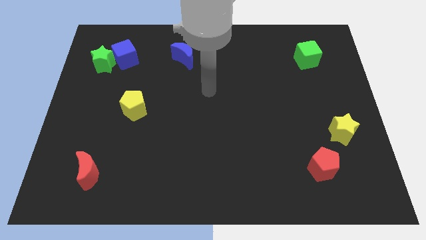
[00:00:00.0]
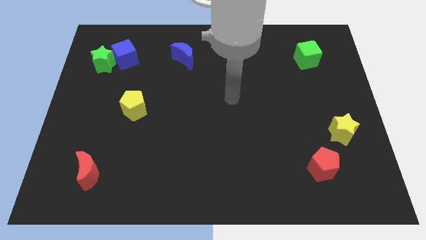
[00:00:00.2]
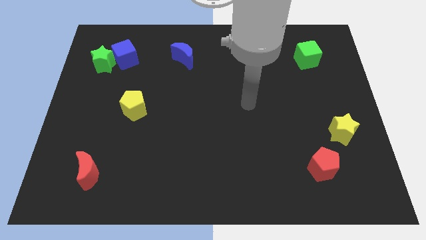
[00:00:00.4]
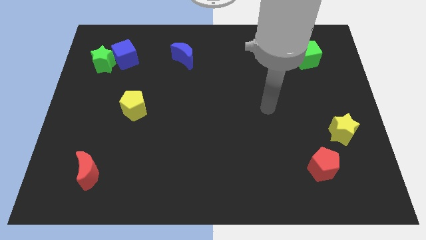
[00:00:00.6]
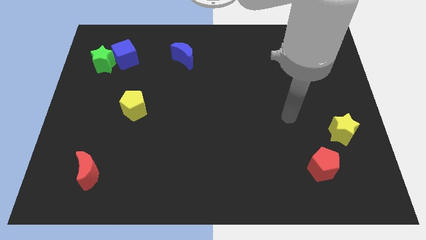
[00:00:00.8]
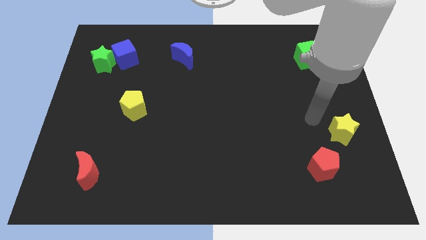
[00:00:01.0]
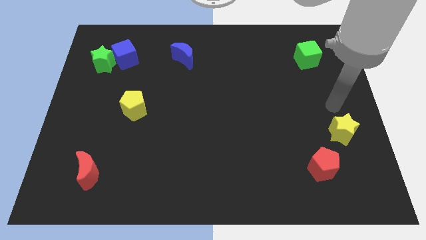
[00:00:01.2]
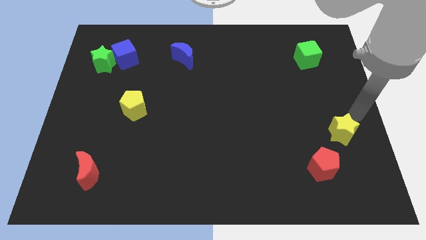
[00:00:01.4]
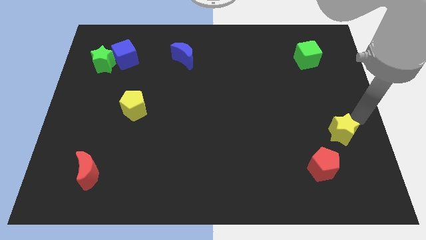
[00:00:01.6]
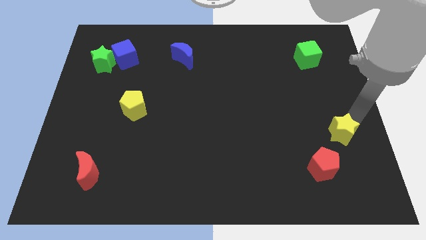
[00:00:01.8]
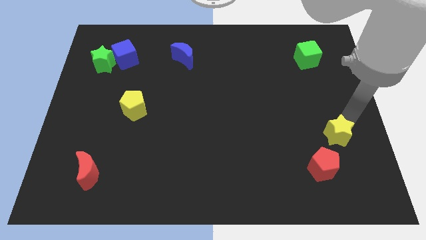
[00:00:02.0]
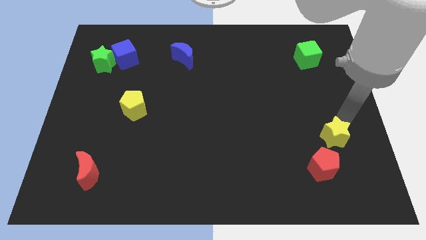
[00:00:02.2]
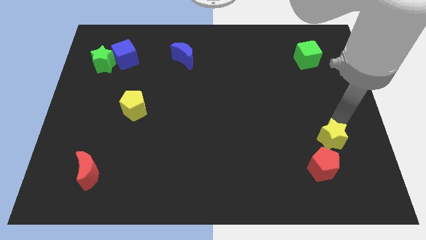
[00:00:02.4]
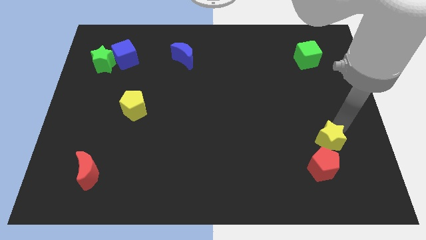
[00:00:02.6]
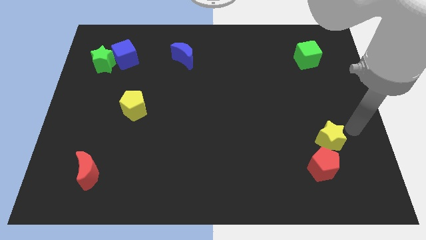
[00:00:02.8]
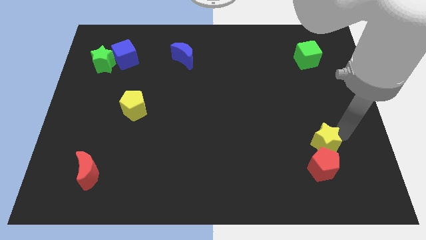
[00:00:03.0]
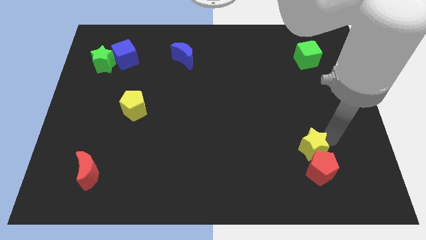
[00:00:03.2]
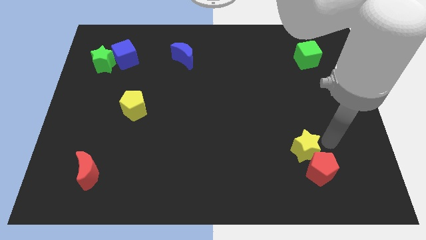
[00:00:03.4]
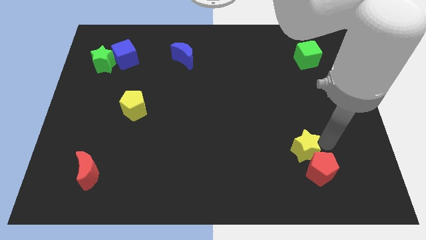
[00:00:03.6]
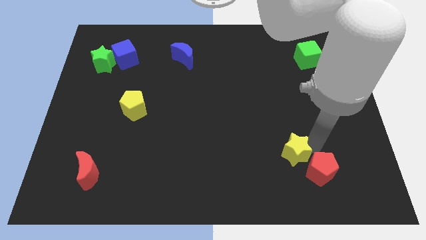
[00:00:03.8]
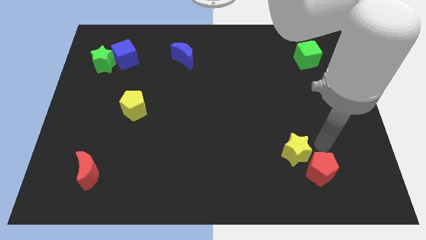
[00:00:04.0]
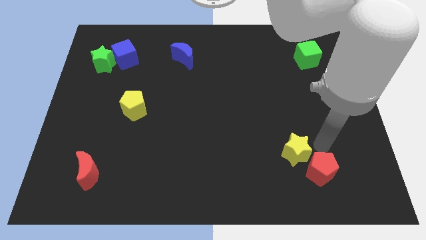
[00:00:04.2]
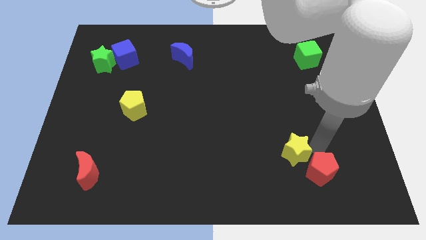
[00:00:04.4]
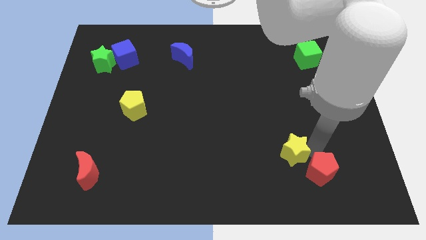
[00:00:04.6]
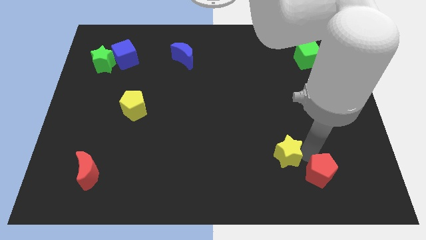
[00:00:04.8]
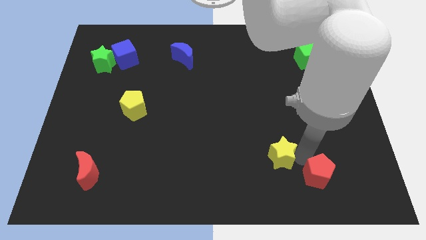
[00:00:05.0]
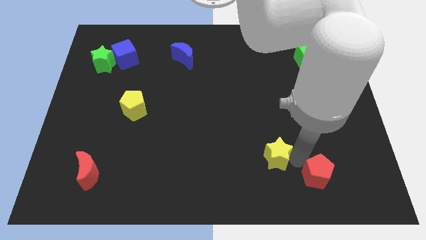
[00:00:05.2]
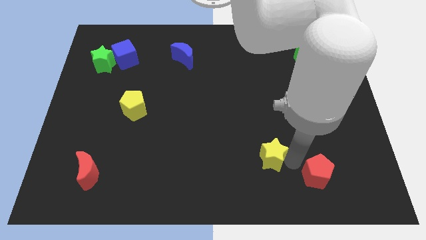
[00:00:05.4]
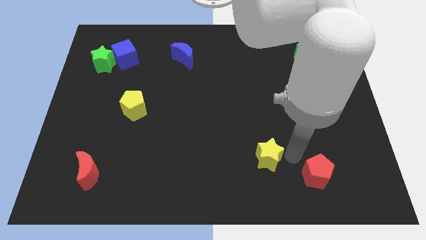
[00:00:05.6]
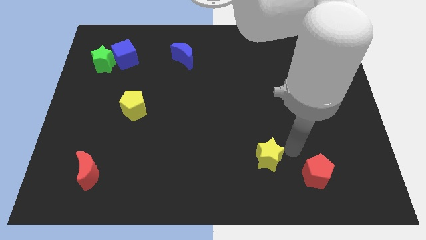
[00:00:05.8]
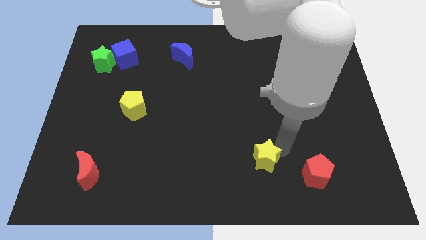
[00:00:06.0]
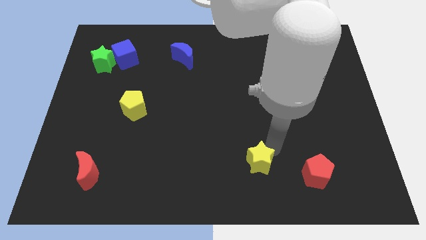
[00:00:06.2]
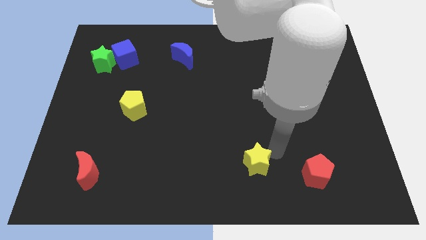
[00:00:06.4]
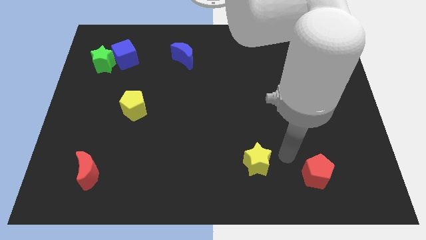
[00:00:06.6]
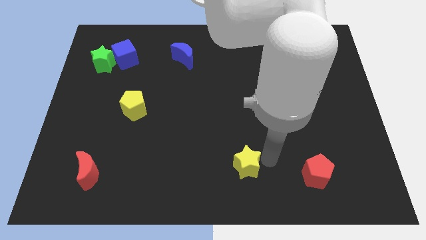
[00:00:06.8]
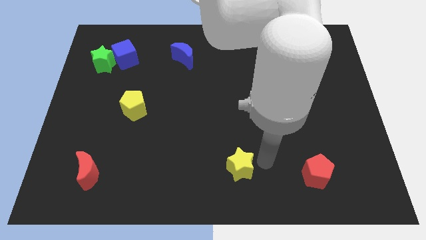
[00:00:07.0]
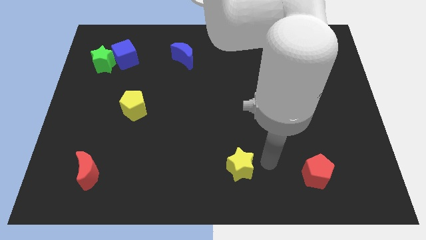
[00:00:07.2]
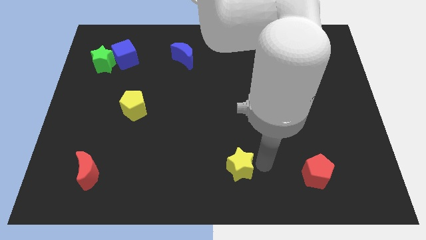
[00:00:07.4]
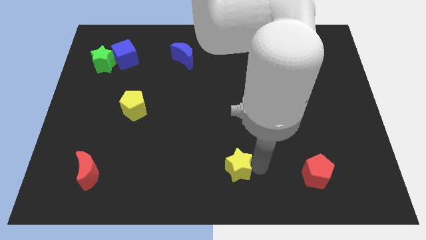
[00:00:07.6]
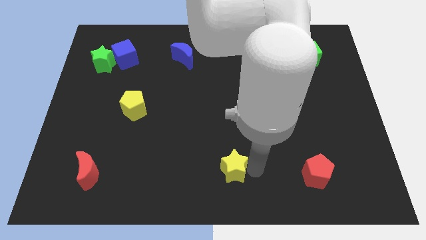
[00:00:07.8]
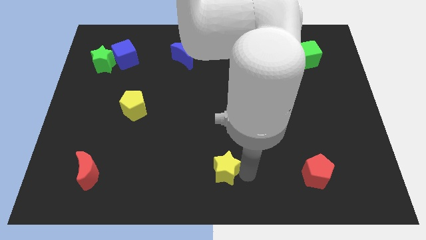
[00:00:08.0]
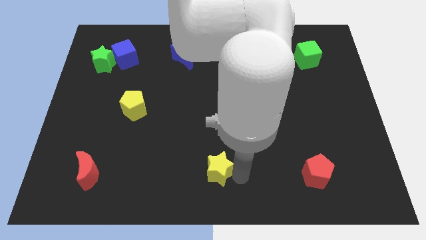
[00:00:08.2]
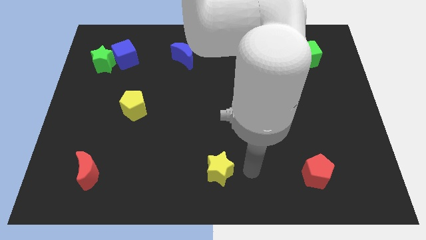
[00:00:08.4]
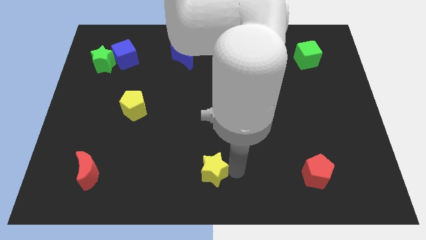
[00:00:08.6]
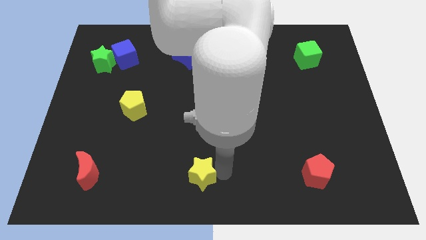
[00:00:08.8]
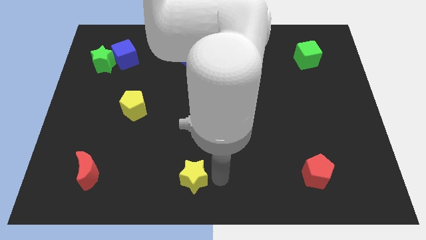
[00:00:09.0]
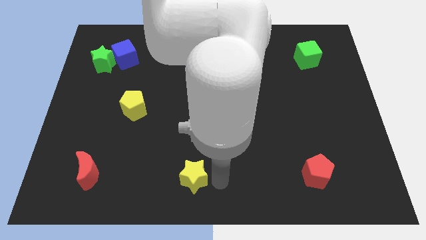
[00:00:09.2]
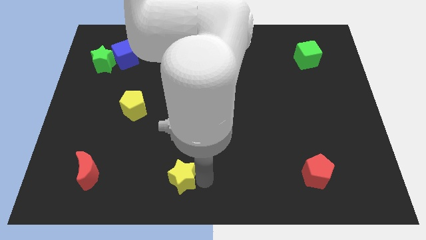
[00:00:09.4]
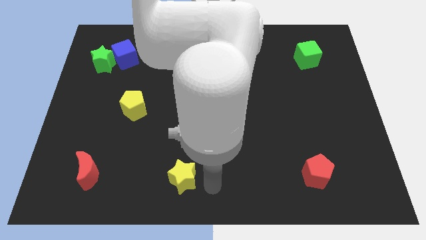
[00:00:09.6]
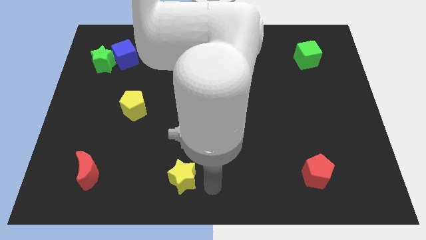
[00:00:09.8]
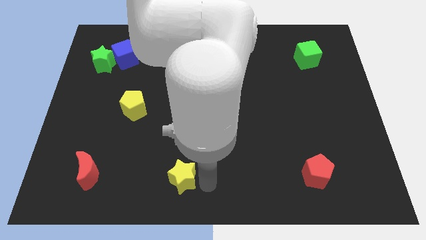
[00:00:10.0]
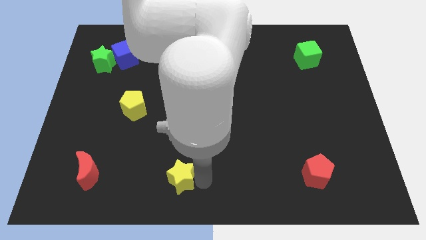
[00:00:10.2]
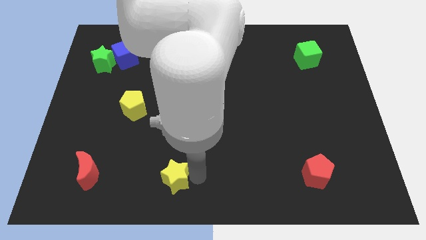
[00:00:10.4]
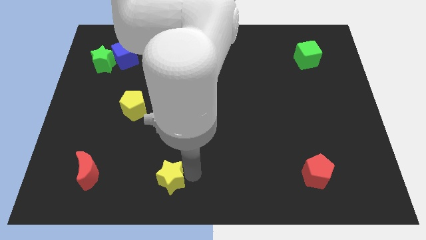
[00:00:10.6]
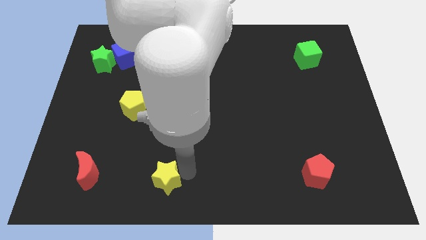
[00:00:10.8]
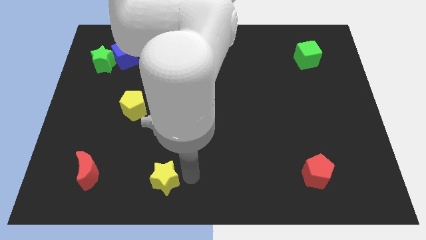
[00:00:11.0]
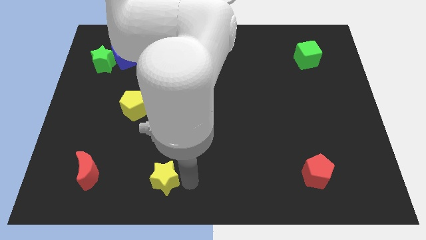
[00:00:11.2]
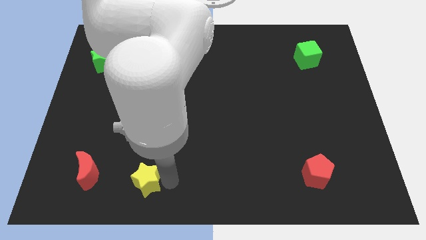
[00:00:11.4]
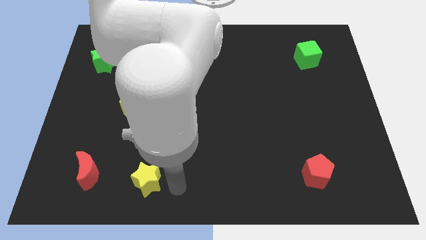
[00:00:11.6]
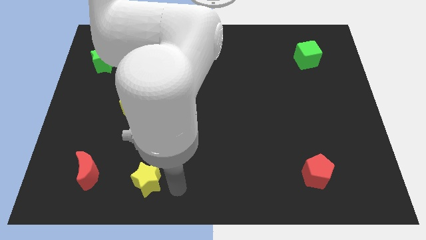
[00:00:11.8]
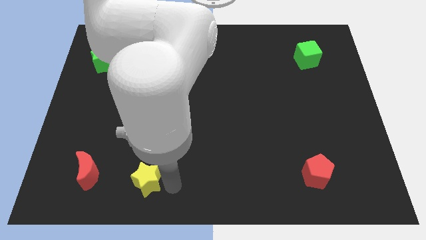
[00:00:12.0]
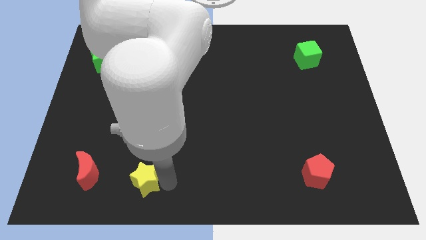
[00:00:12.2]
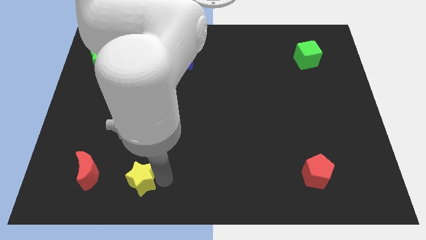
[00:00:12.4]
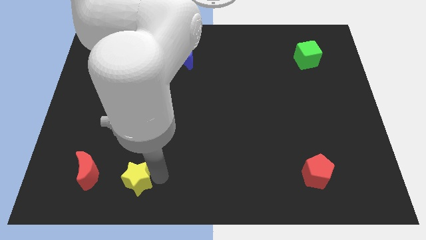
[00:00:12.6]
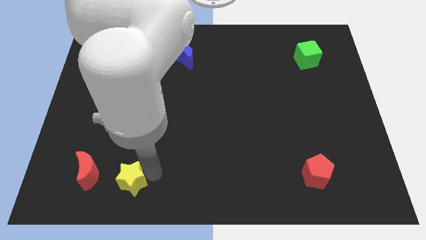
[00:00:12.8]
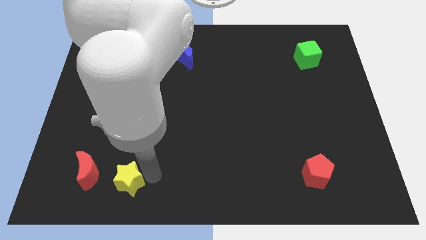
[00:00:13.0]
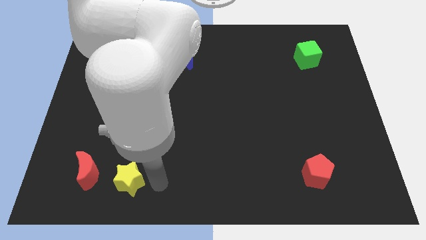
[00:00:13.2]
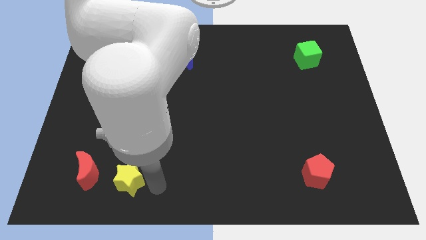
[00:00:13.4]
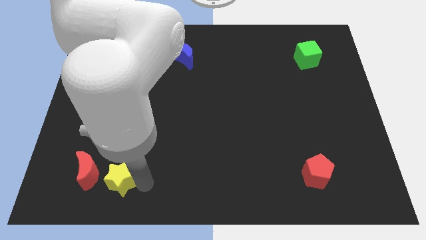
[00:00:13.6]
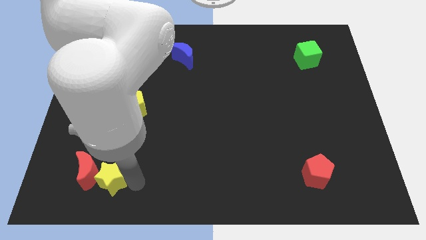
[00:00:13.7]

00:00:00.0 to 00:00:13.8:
push the yellow star towards the red moon
